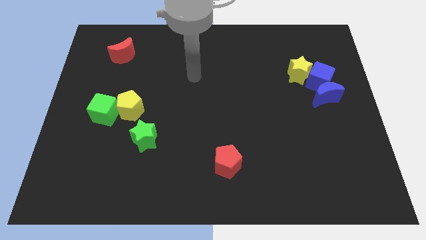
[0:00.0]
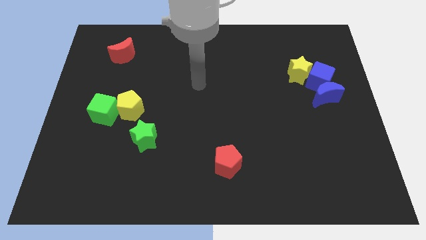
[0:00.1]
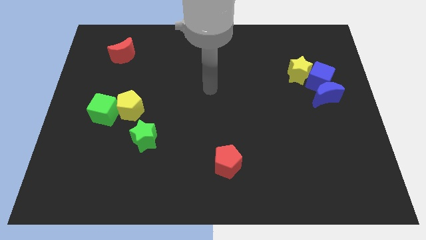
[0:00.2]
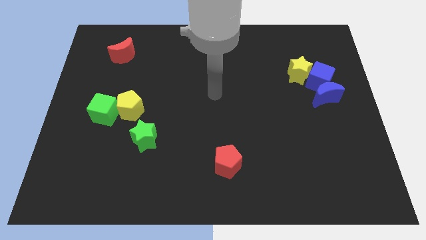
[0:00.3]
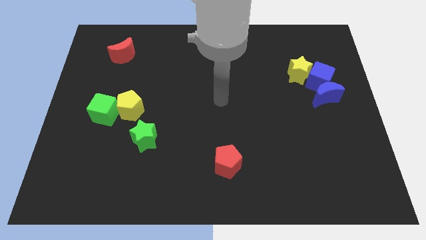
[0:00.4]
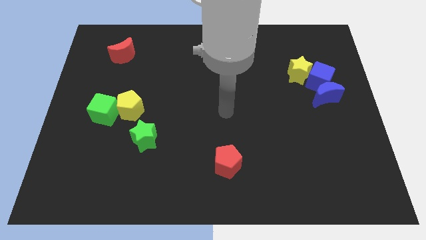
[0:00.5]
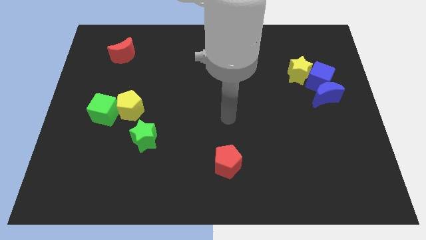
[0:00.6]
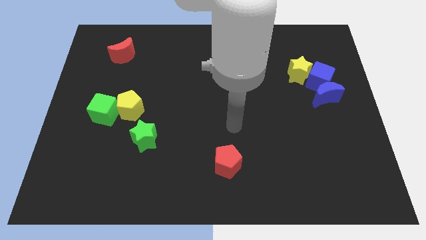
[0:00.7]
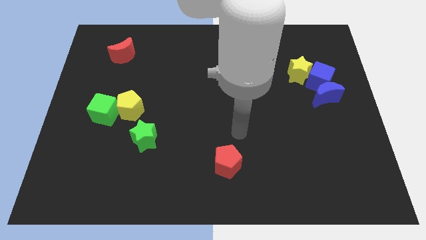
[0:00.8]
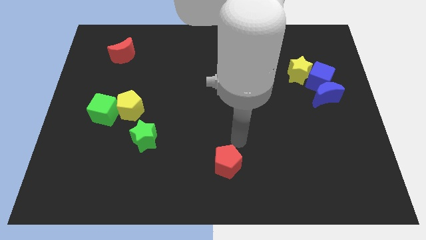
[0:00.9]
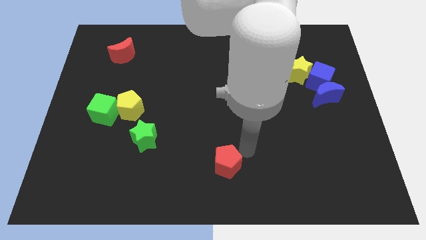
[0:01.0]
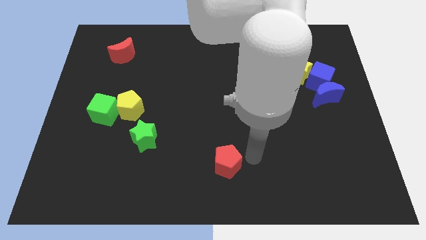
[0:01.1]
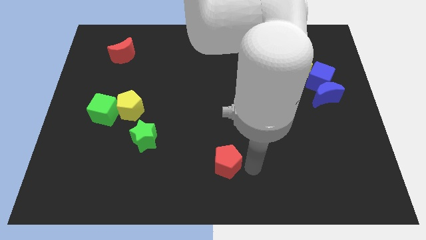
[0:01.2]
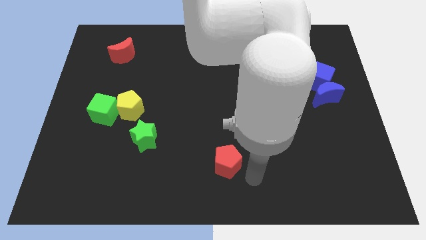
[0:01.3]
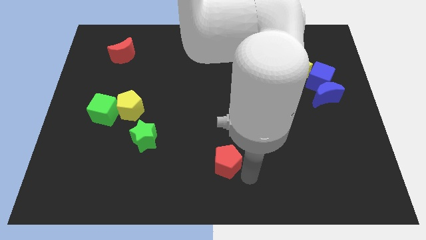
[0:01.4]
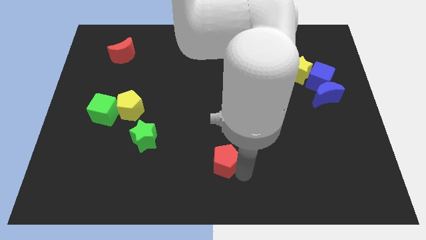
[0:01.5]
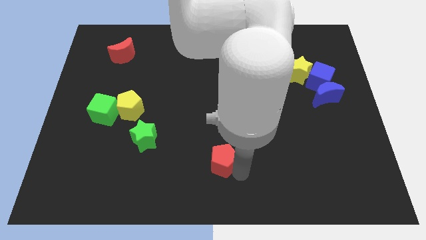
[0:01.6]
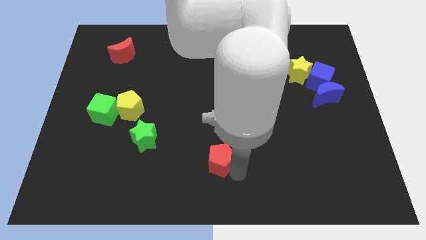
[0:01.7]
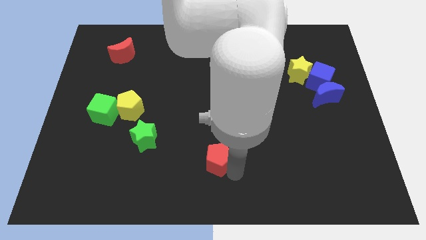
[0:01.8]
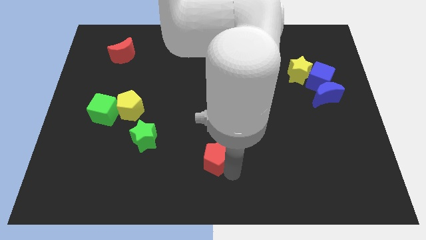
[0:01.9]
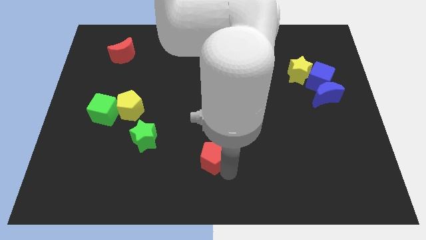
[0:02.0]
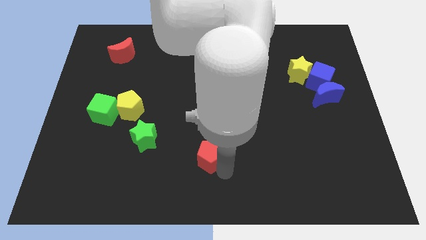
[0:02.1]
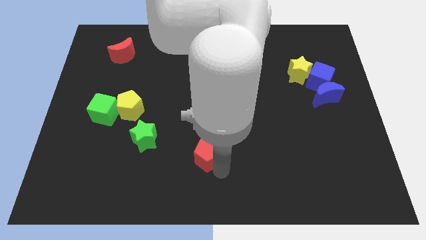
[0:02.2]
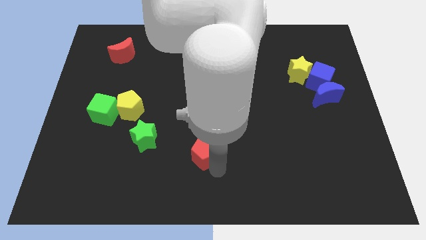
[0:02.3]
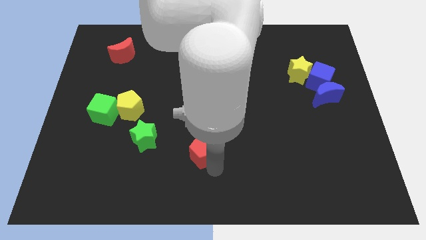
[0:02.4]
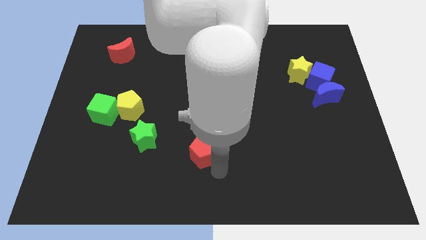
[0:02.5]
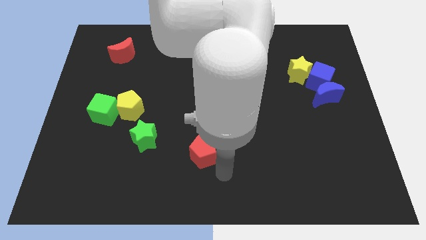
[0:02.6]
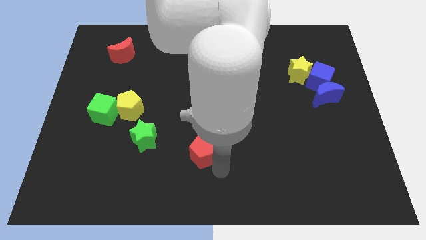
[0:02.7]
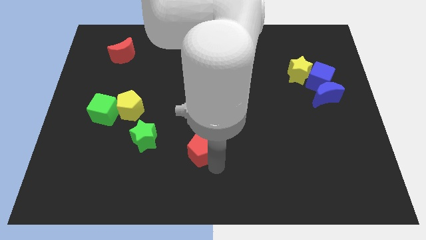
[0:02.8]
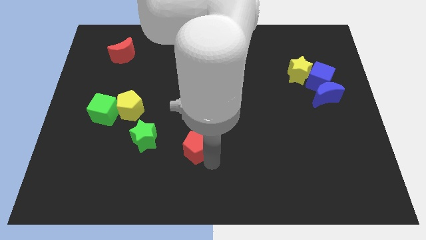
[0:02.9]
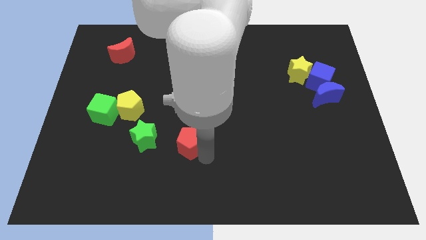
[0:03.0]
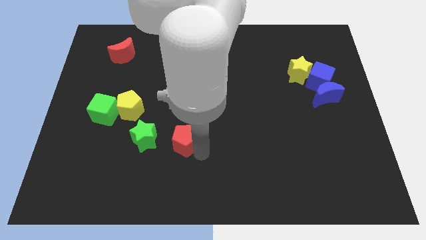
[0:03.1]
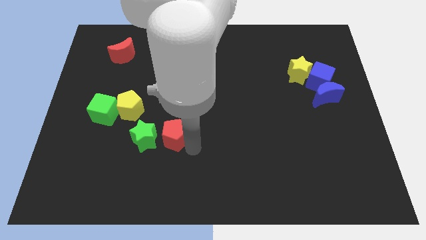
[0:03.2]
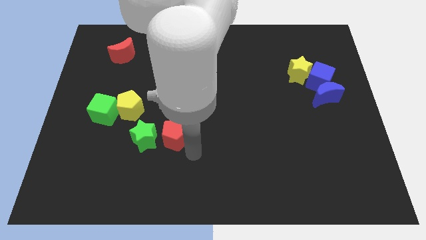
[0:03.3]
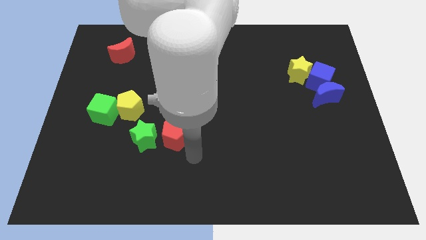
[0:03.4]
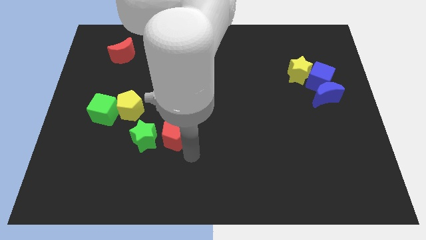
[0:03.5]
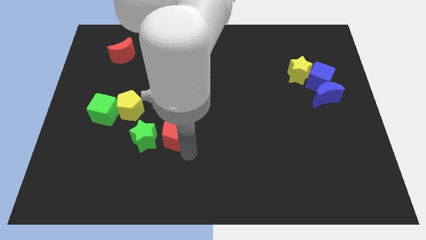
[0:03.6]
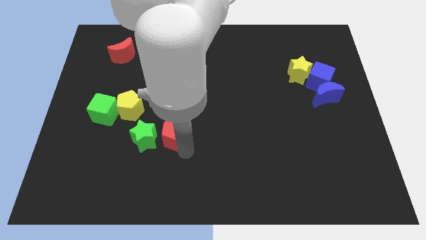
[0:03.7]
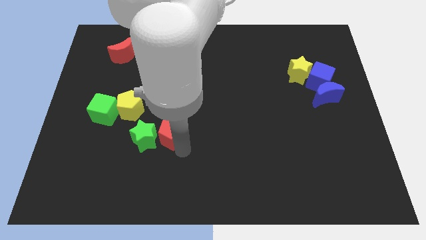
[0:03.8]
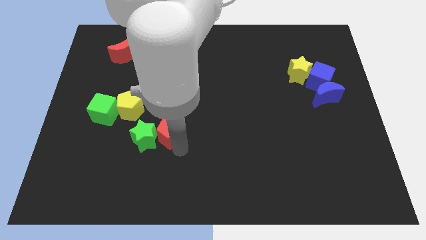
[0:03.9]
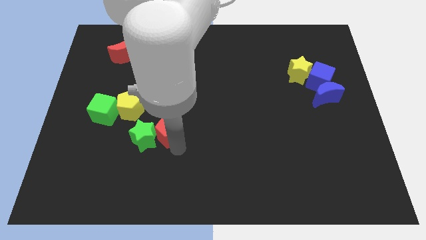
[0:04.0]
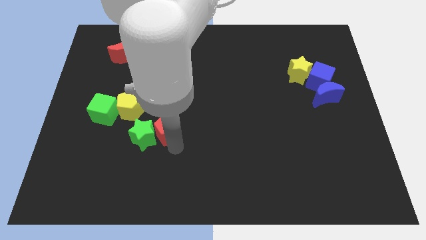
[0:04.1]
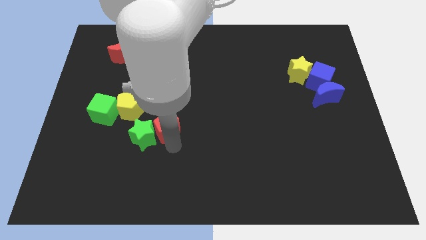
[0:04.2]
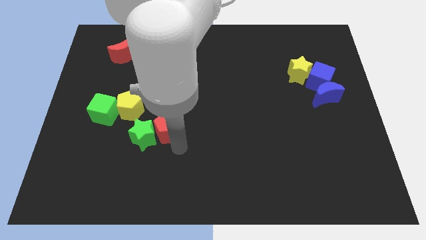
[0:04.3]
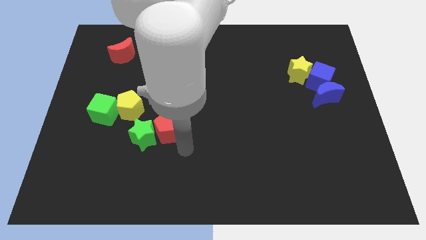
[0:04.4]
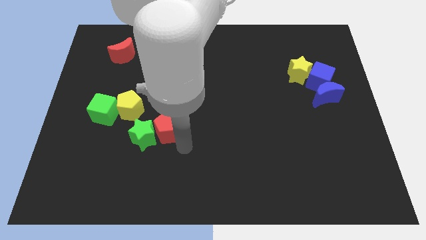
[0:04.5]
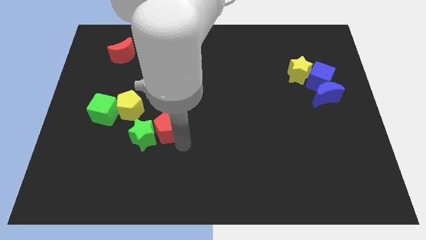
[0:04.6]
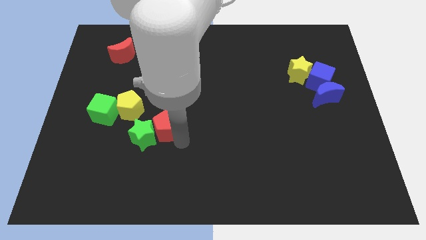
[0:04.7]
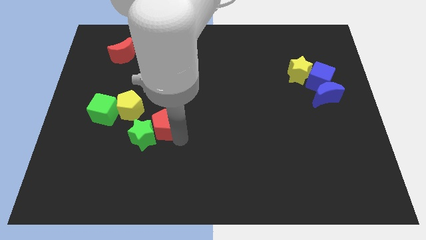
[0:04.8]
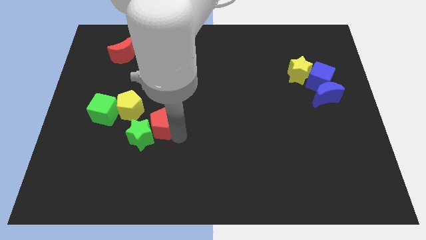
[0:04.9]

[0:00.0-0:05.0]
move the red pentagon right of the green cube

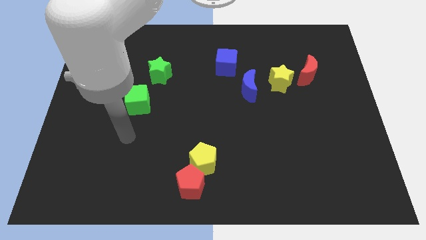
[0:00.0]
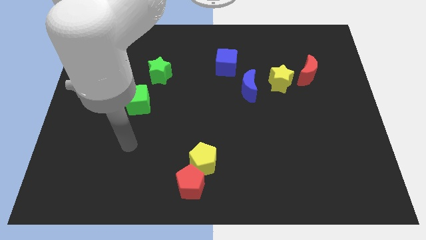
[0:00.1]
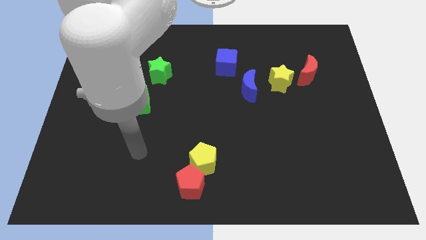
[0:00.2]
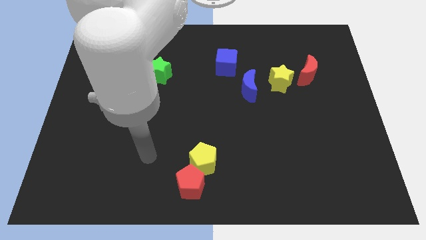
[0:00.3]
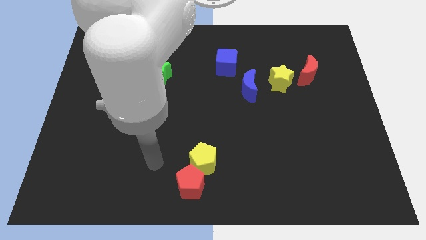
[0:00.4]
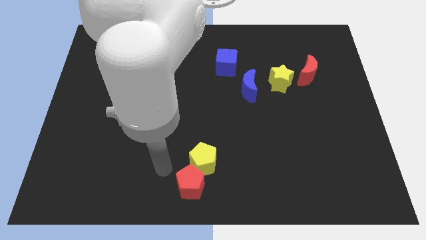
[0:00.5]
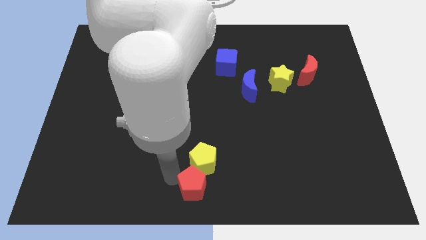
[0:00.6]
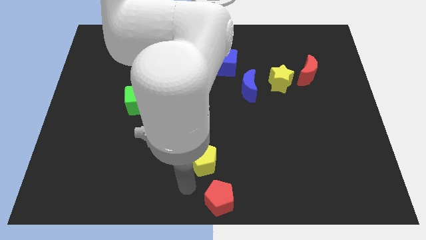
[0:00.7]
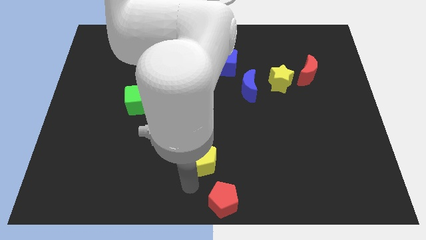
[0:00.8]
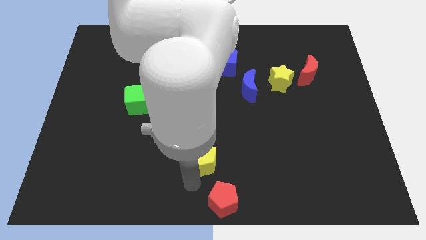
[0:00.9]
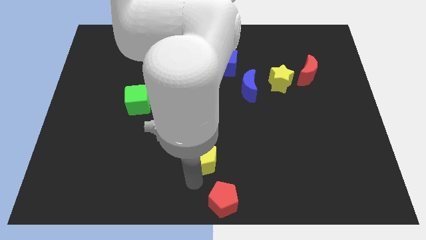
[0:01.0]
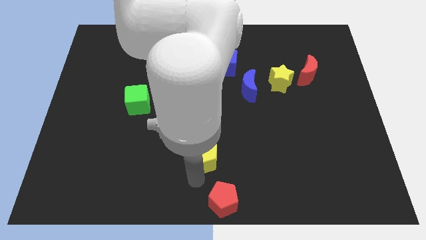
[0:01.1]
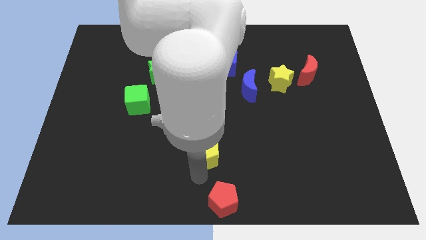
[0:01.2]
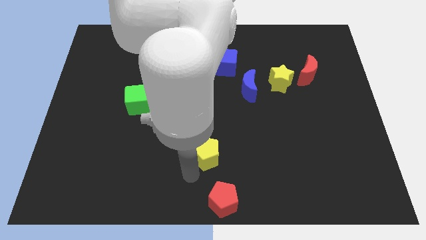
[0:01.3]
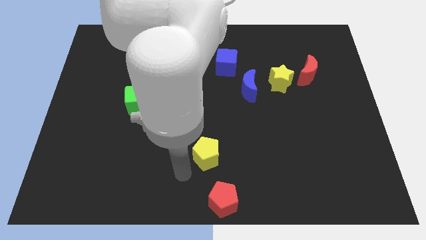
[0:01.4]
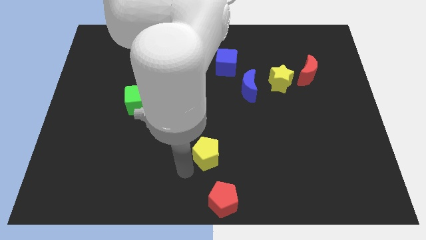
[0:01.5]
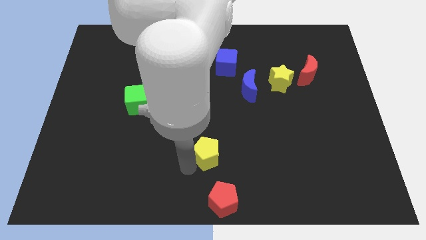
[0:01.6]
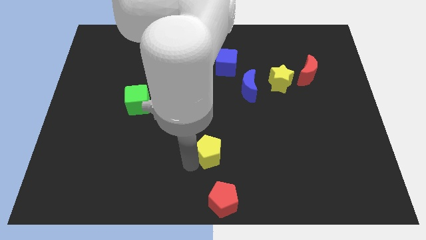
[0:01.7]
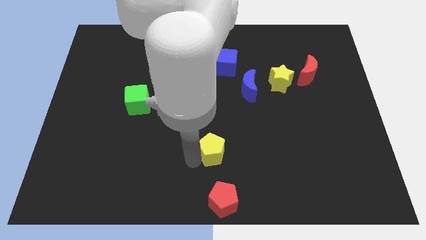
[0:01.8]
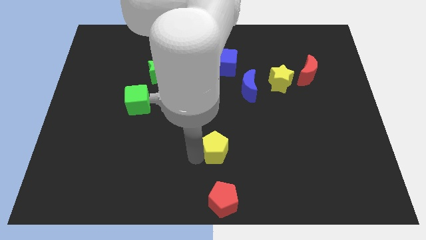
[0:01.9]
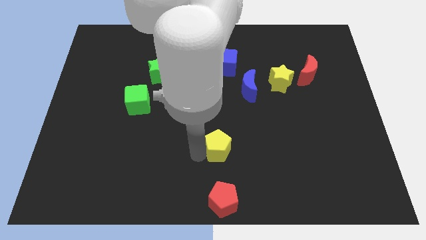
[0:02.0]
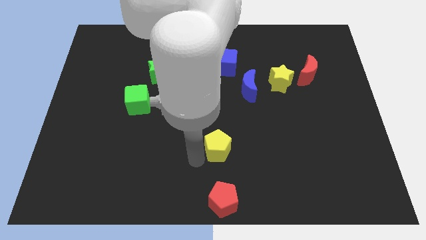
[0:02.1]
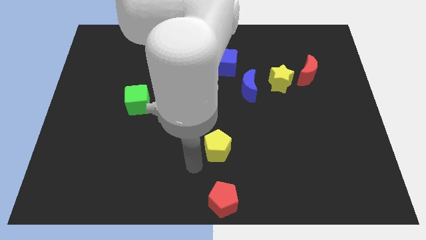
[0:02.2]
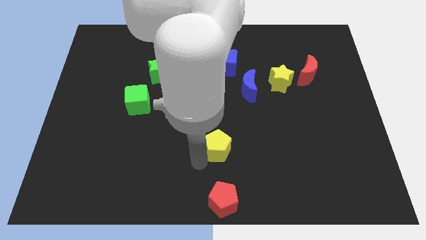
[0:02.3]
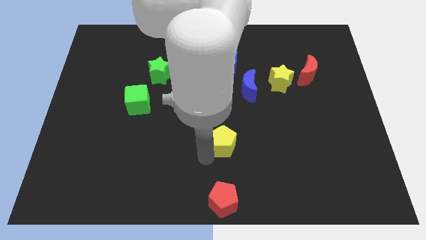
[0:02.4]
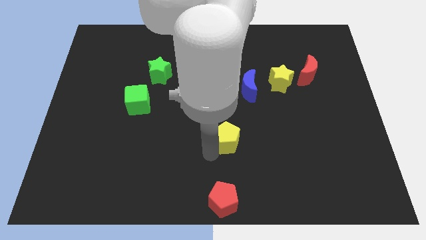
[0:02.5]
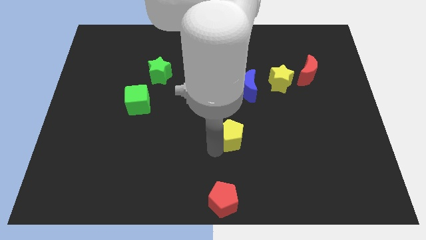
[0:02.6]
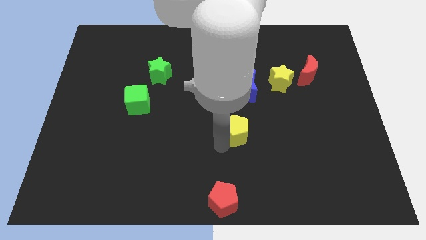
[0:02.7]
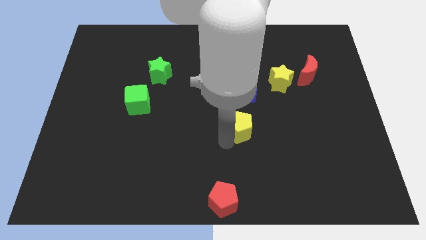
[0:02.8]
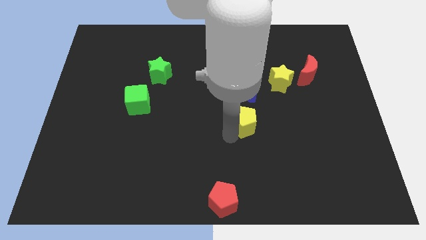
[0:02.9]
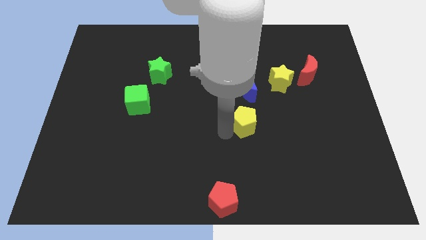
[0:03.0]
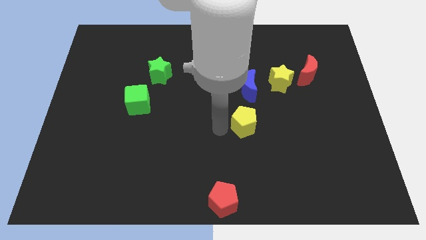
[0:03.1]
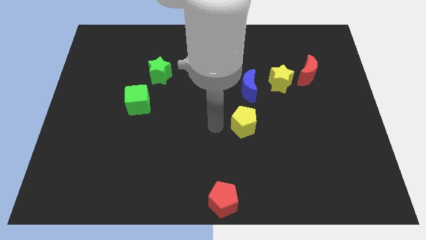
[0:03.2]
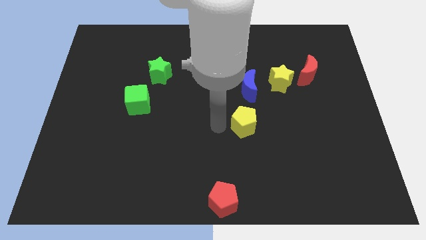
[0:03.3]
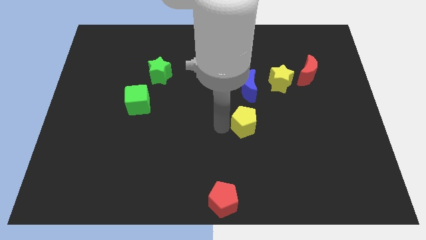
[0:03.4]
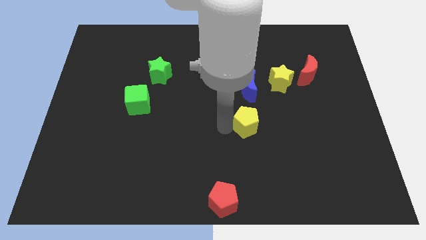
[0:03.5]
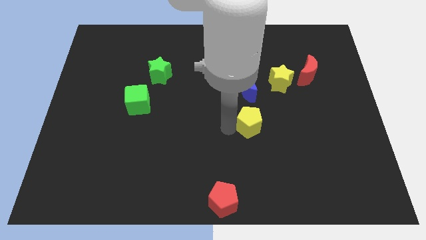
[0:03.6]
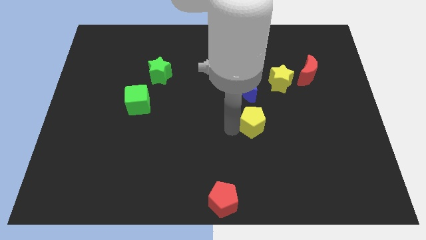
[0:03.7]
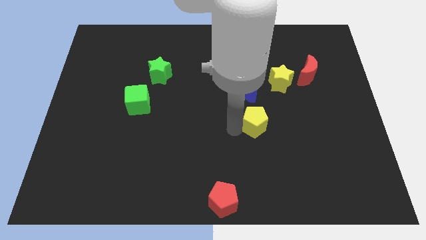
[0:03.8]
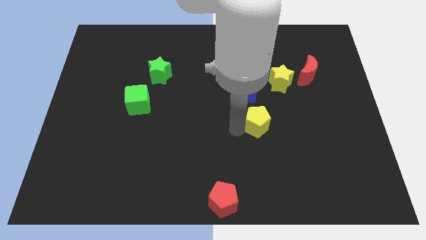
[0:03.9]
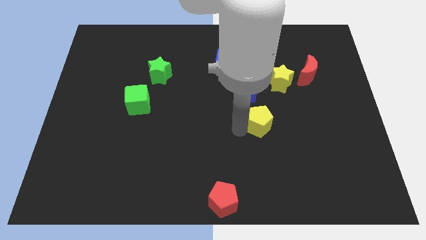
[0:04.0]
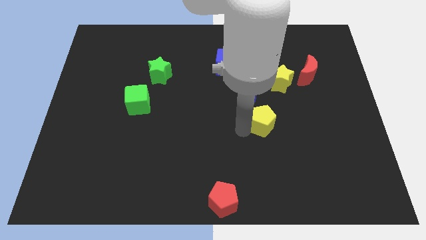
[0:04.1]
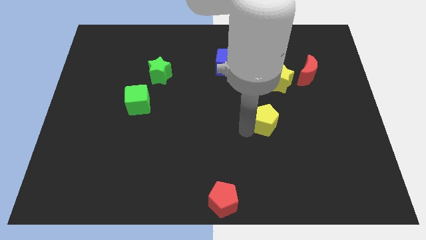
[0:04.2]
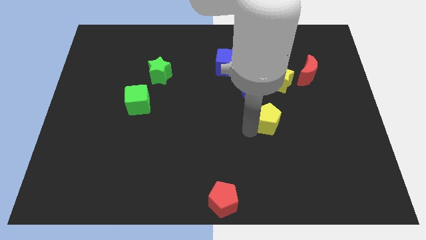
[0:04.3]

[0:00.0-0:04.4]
push the yellow pentagon below the yellow star
